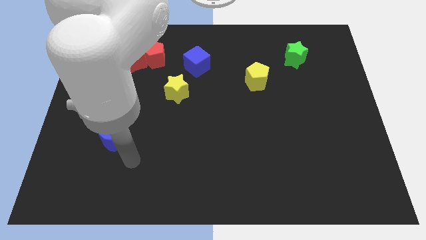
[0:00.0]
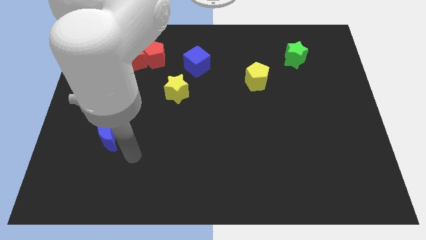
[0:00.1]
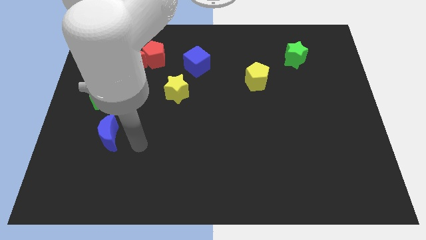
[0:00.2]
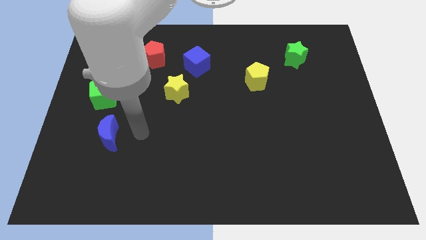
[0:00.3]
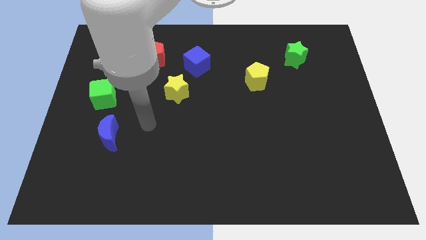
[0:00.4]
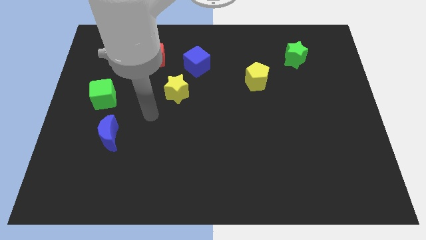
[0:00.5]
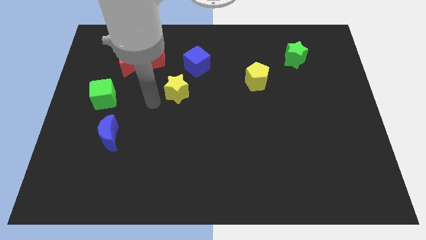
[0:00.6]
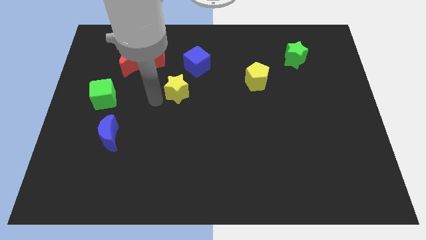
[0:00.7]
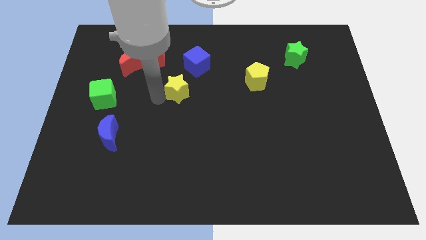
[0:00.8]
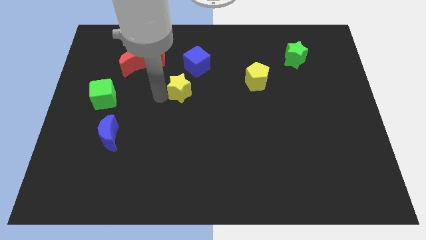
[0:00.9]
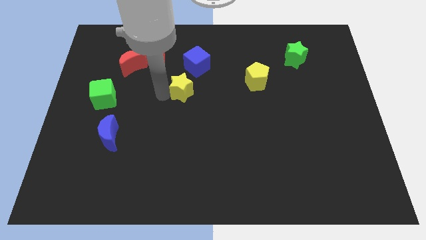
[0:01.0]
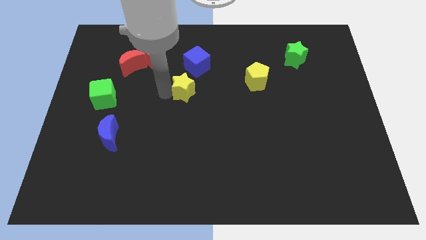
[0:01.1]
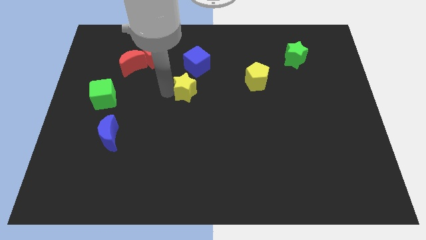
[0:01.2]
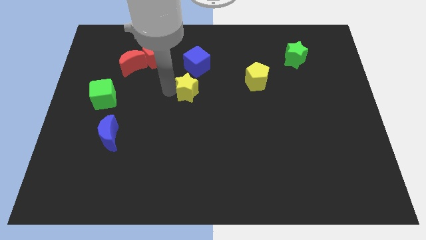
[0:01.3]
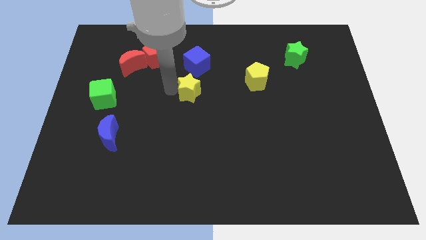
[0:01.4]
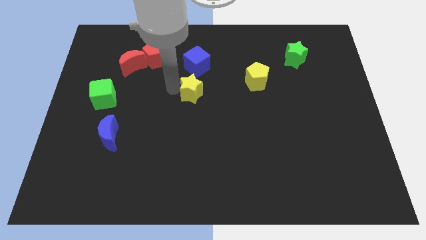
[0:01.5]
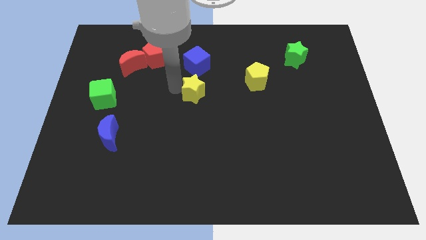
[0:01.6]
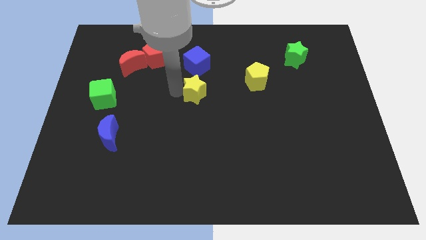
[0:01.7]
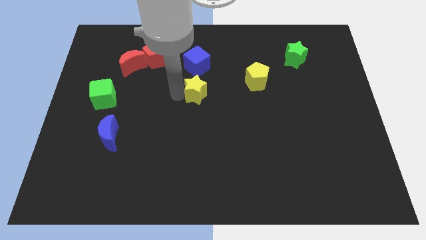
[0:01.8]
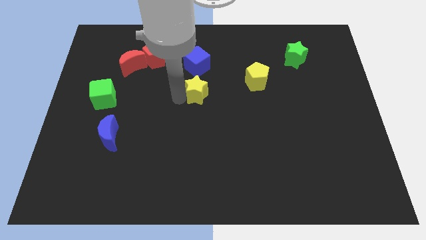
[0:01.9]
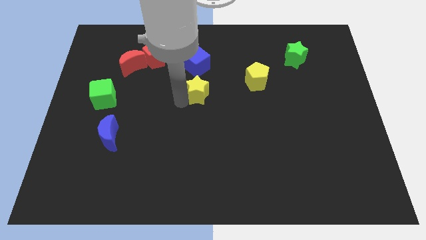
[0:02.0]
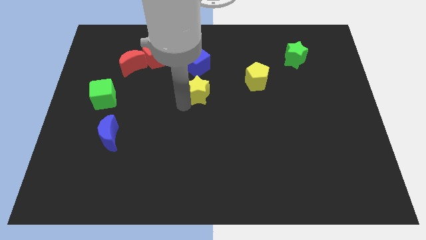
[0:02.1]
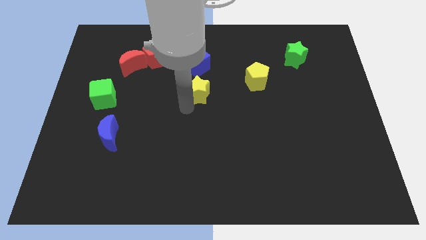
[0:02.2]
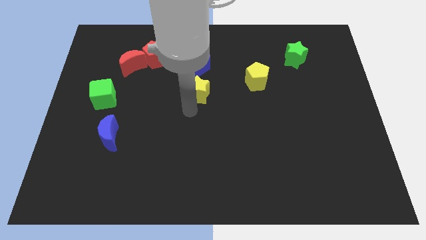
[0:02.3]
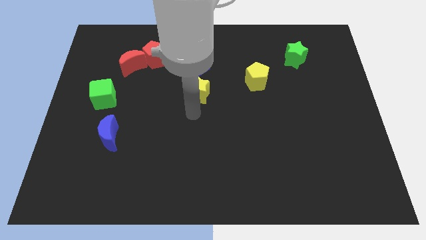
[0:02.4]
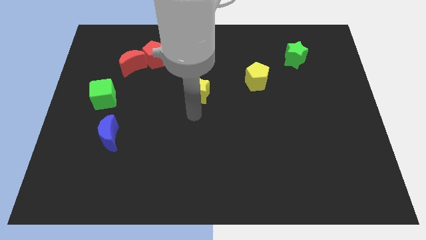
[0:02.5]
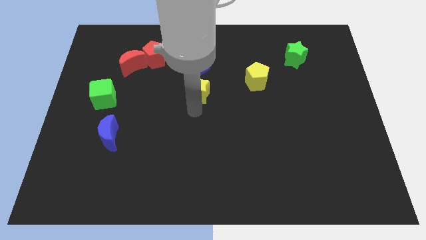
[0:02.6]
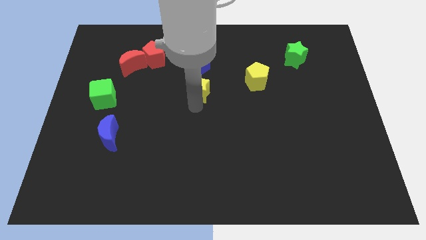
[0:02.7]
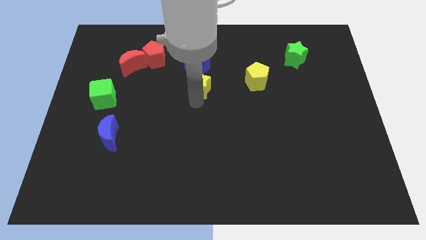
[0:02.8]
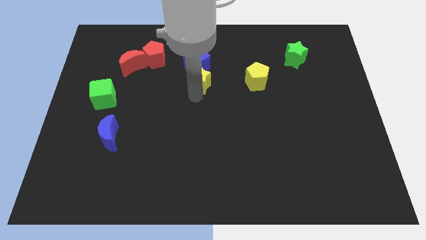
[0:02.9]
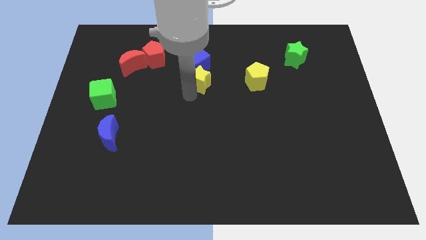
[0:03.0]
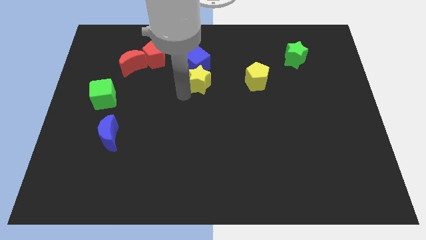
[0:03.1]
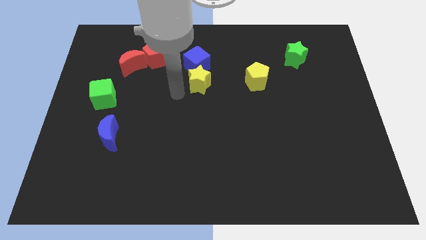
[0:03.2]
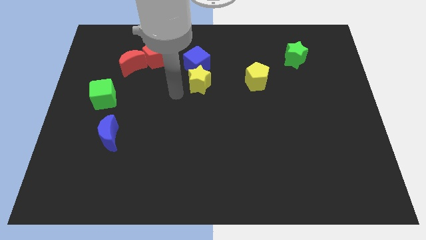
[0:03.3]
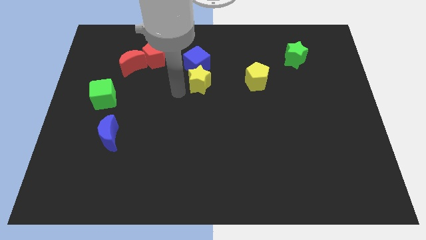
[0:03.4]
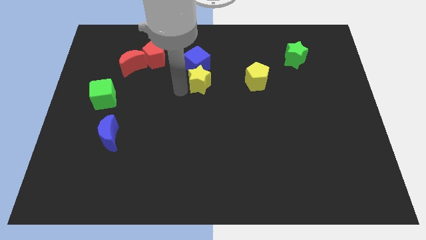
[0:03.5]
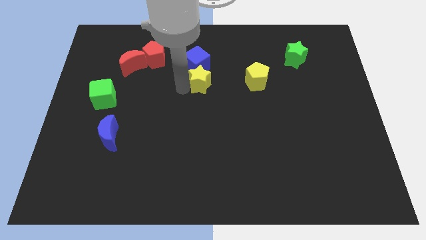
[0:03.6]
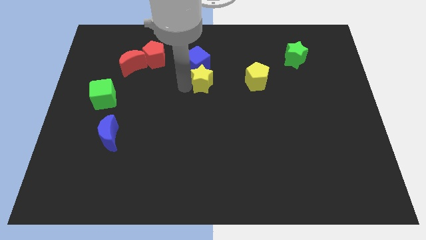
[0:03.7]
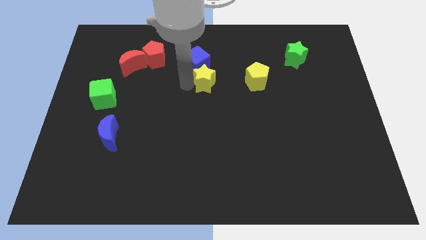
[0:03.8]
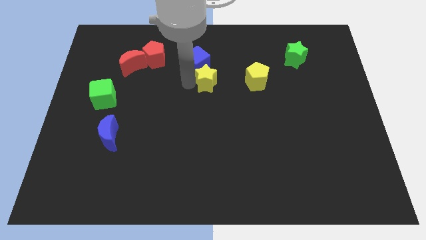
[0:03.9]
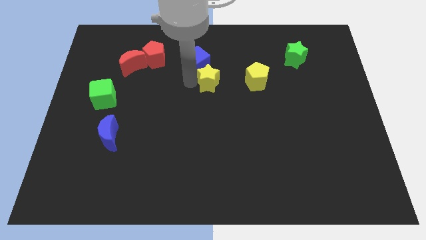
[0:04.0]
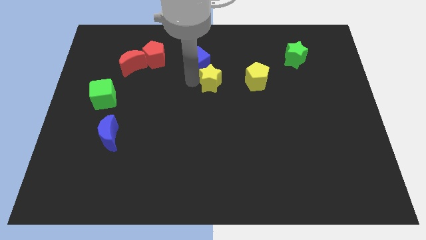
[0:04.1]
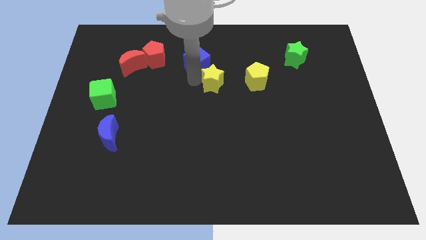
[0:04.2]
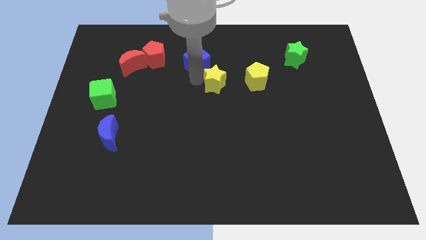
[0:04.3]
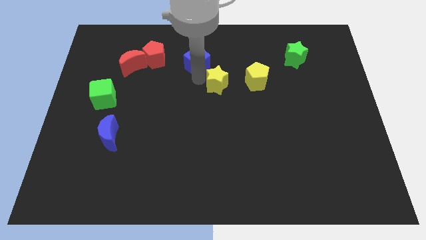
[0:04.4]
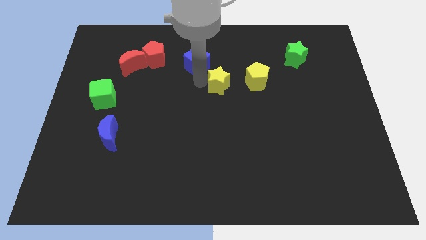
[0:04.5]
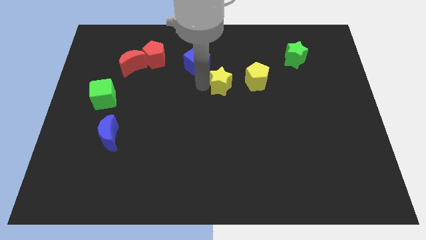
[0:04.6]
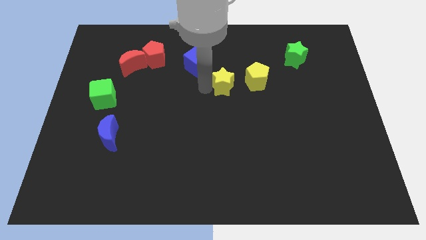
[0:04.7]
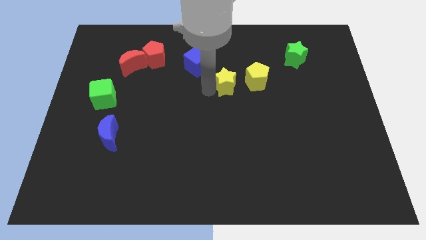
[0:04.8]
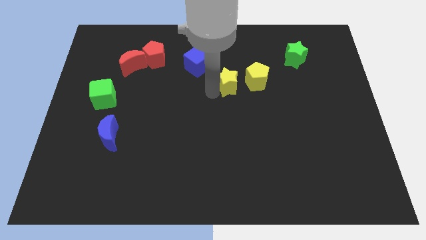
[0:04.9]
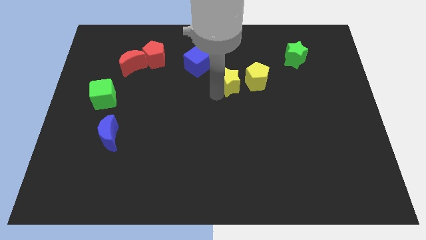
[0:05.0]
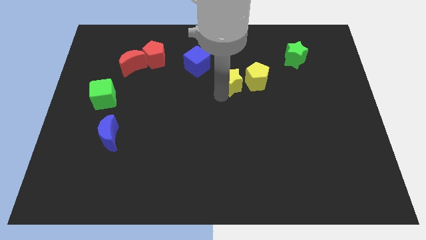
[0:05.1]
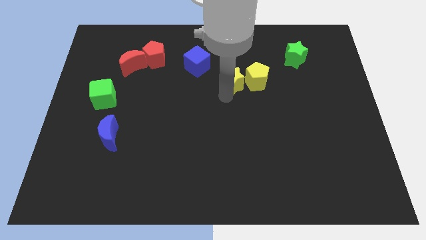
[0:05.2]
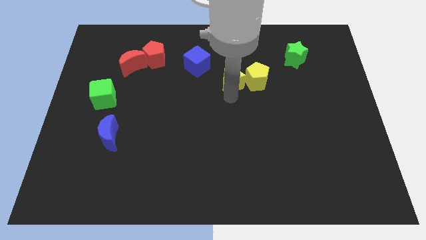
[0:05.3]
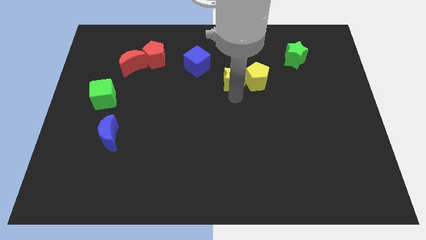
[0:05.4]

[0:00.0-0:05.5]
put the yellow star to the top left side of the yellow pentagon

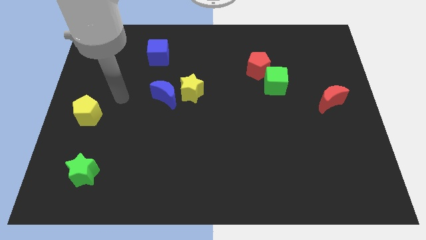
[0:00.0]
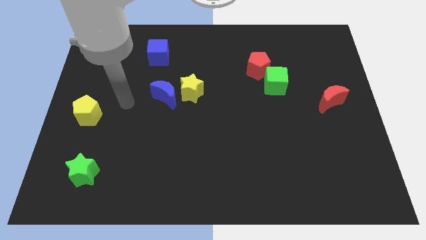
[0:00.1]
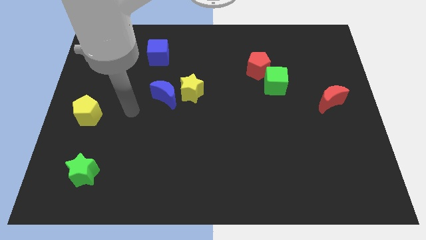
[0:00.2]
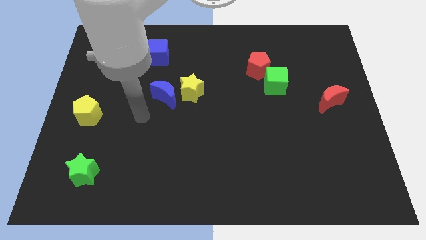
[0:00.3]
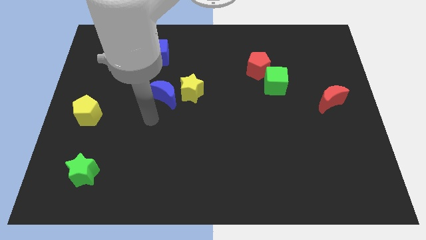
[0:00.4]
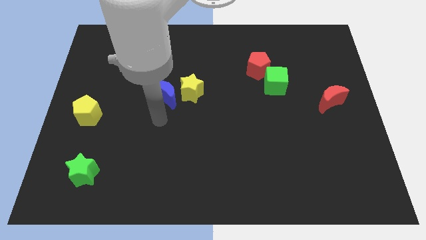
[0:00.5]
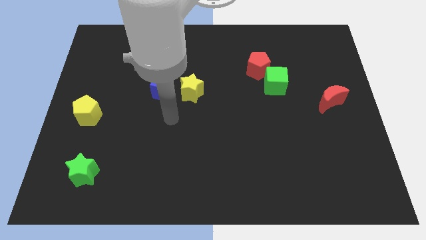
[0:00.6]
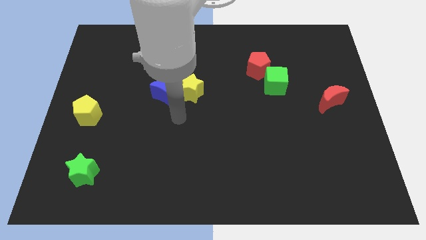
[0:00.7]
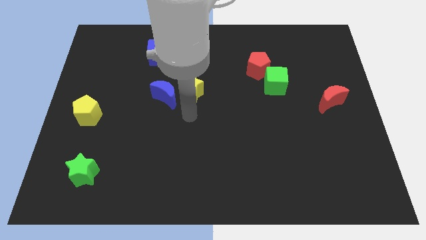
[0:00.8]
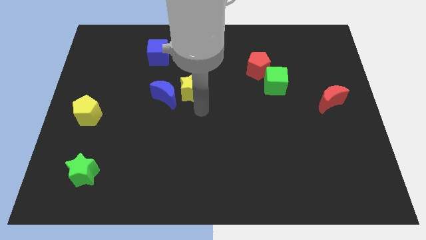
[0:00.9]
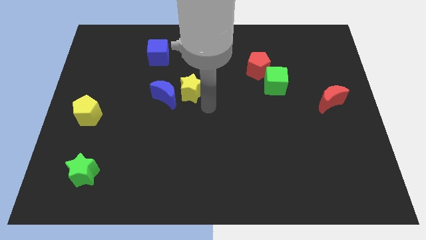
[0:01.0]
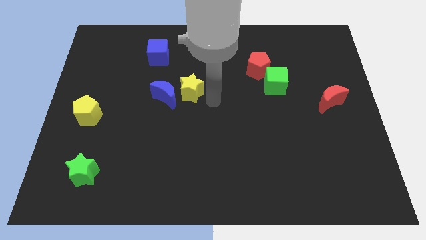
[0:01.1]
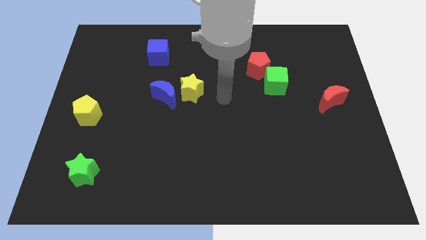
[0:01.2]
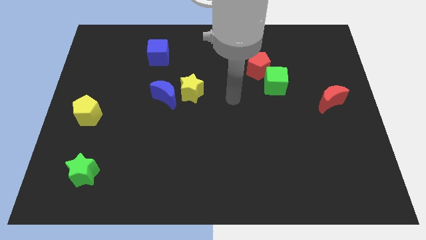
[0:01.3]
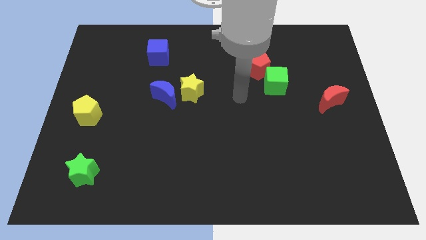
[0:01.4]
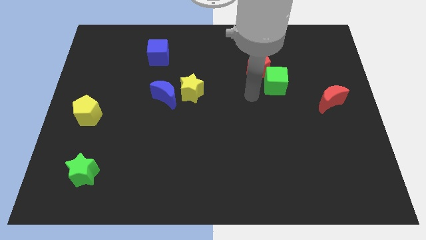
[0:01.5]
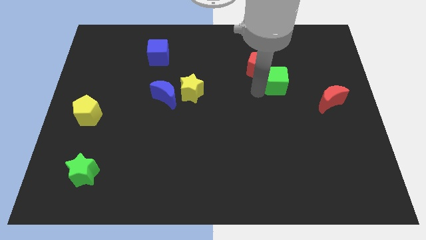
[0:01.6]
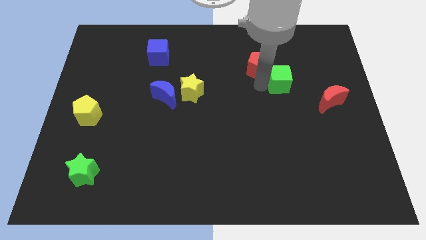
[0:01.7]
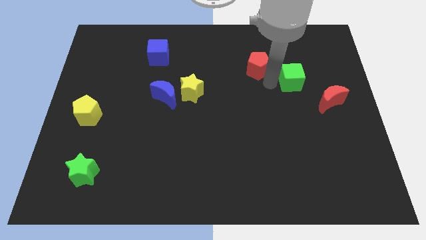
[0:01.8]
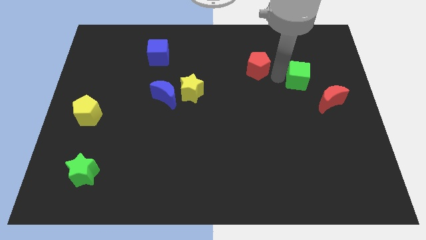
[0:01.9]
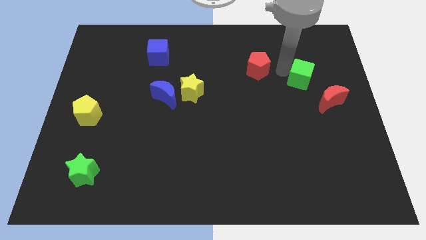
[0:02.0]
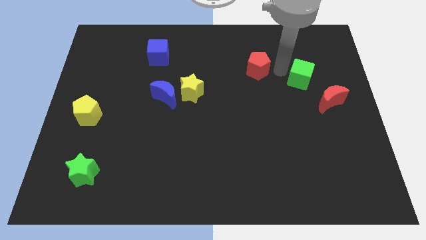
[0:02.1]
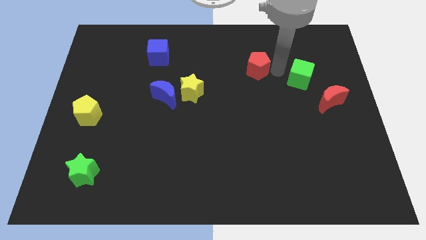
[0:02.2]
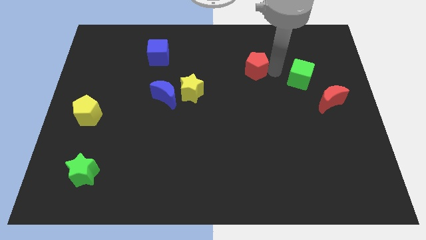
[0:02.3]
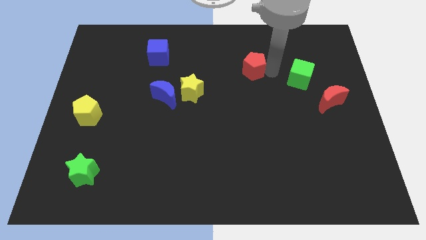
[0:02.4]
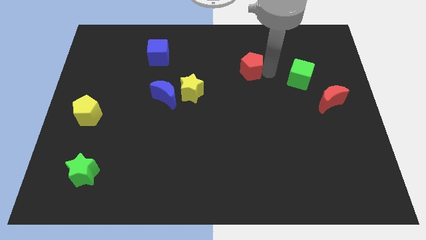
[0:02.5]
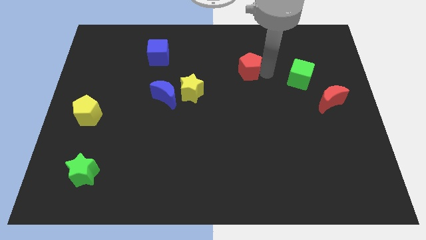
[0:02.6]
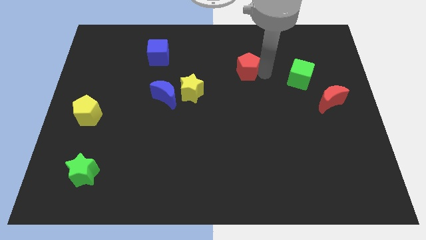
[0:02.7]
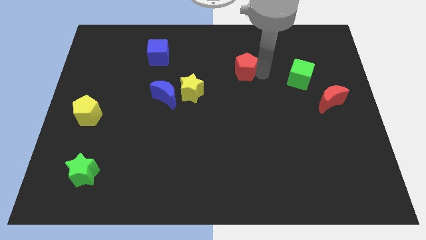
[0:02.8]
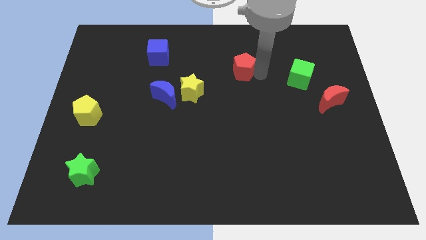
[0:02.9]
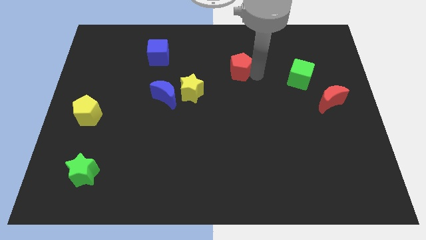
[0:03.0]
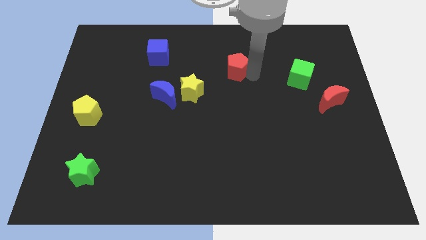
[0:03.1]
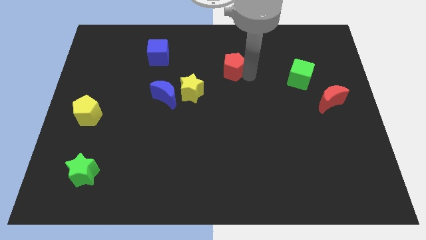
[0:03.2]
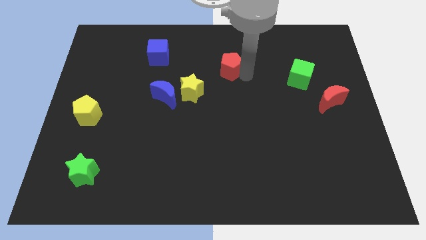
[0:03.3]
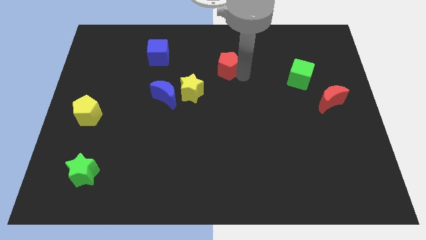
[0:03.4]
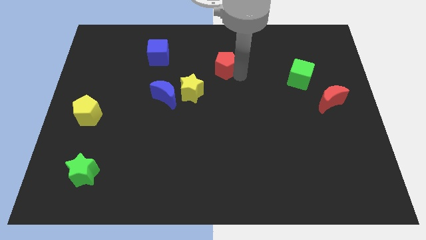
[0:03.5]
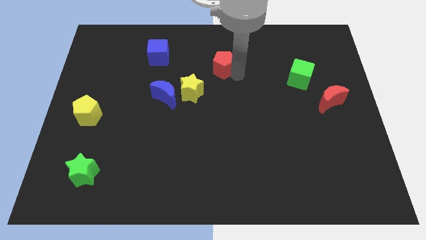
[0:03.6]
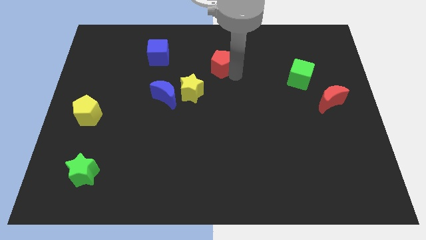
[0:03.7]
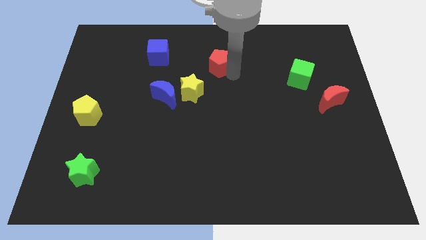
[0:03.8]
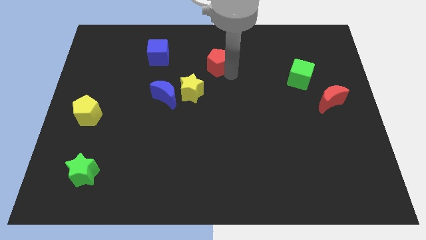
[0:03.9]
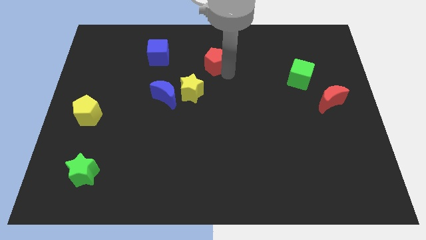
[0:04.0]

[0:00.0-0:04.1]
put the red pentagon right of the blue cube
